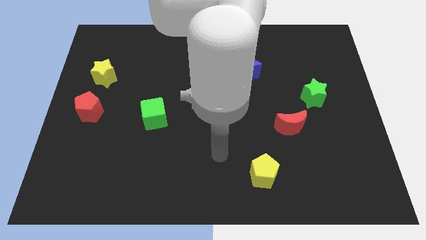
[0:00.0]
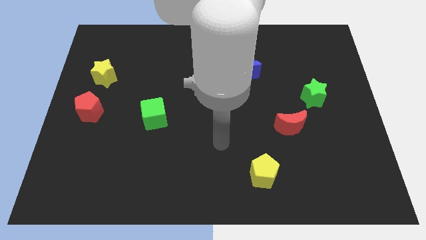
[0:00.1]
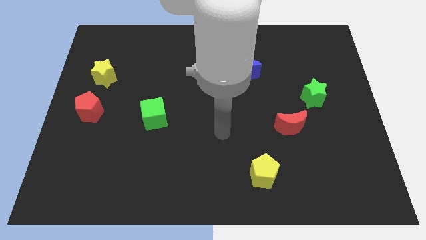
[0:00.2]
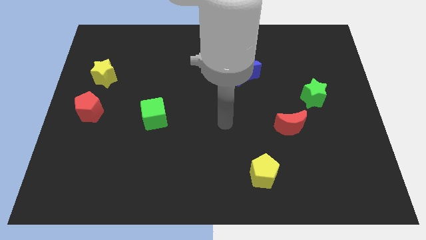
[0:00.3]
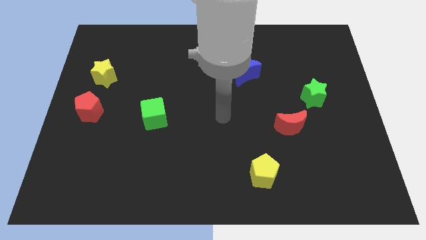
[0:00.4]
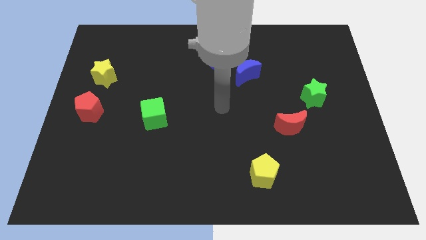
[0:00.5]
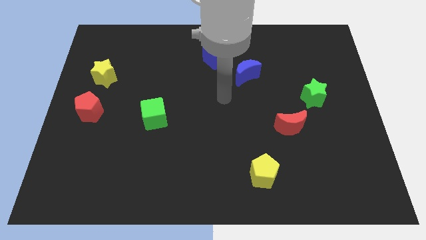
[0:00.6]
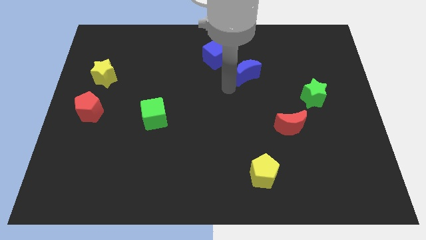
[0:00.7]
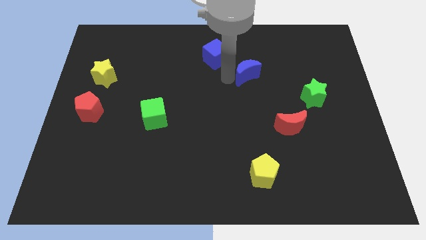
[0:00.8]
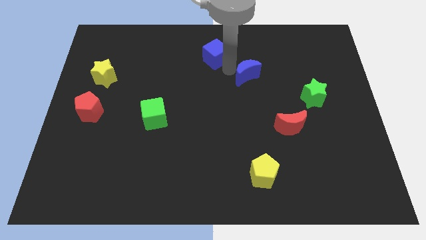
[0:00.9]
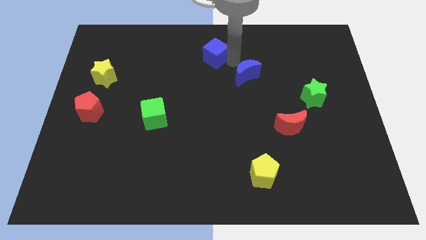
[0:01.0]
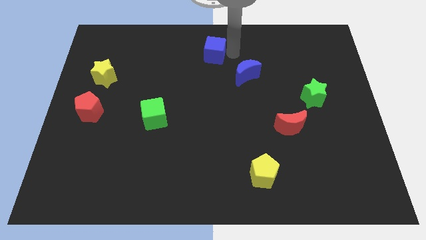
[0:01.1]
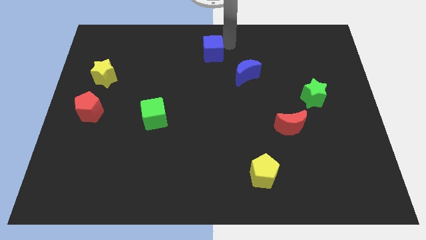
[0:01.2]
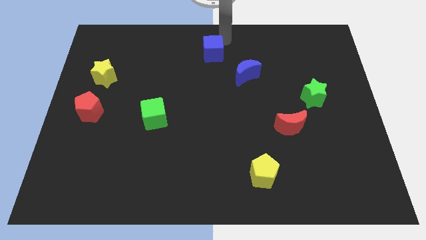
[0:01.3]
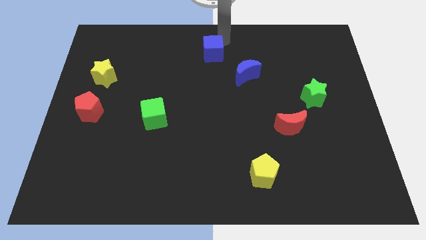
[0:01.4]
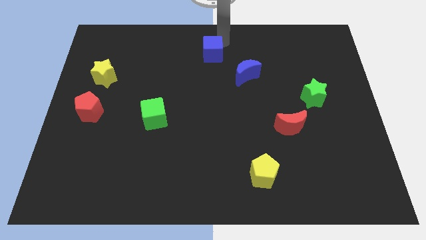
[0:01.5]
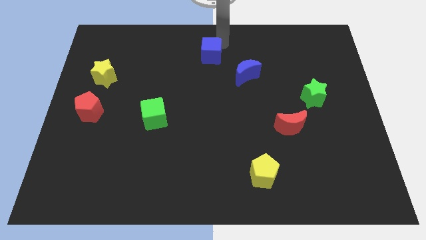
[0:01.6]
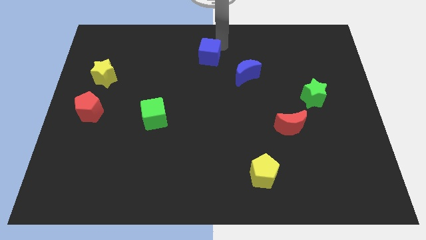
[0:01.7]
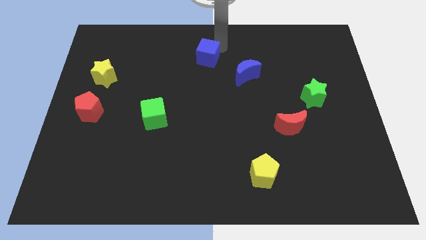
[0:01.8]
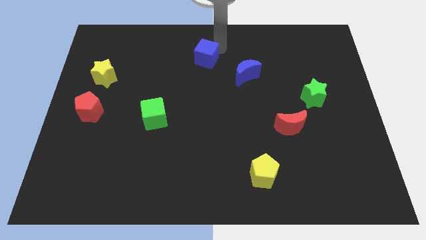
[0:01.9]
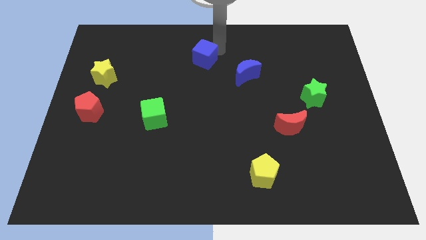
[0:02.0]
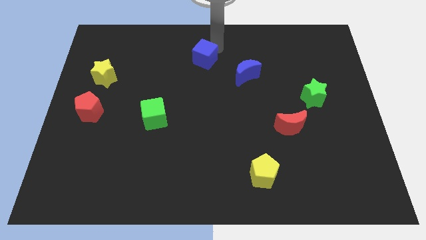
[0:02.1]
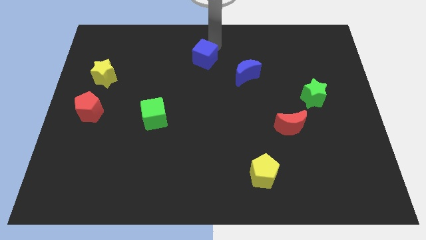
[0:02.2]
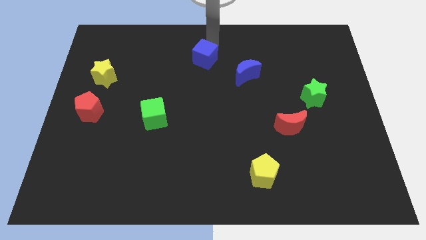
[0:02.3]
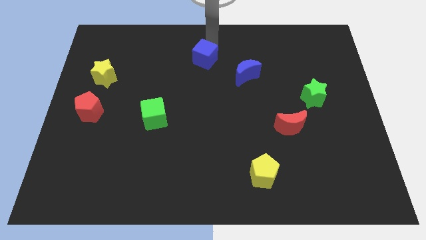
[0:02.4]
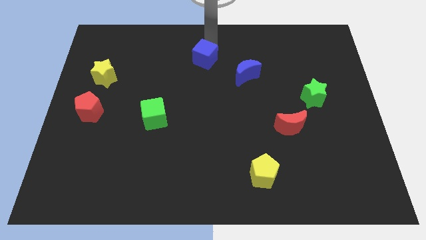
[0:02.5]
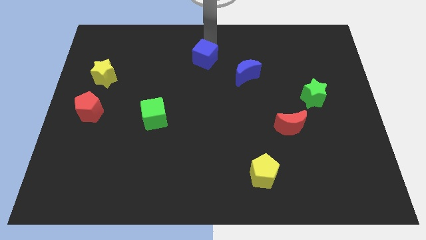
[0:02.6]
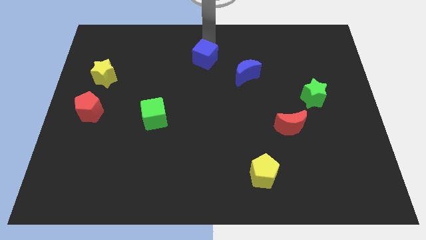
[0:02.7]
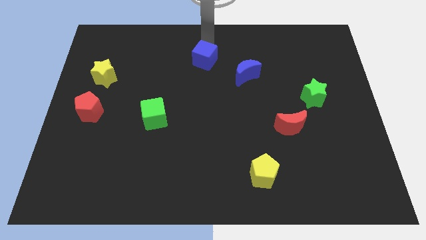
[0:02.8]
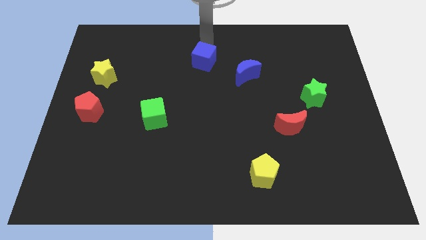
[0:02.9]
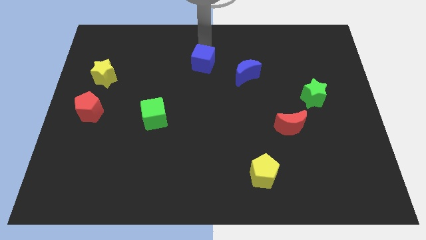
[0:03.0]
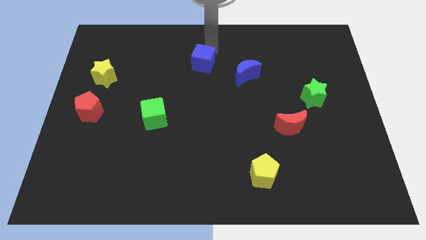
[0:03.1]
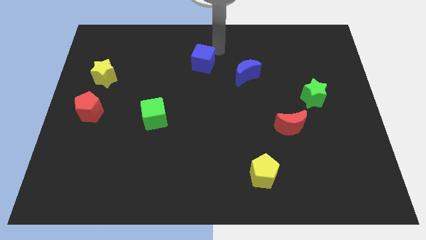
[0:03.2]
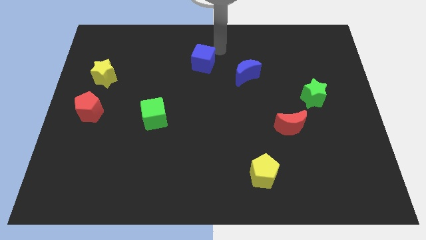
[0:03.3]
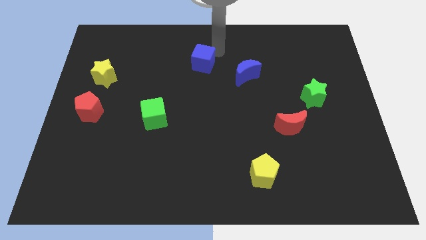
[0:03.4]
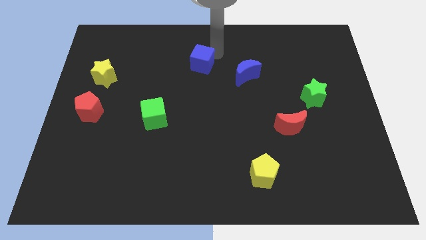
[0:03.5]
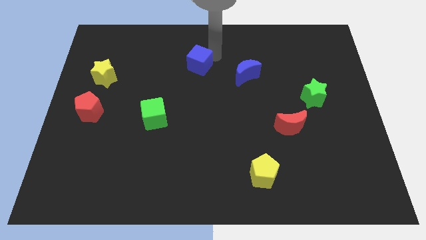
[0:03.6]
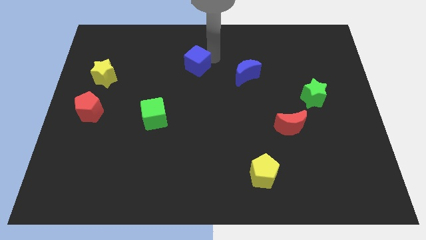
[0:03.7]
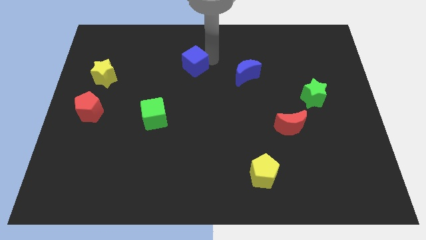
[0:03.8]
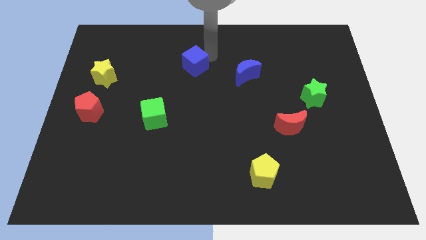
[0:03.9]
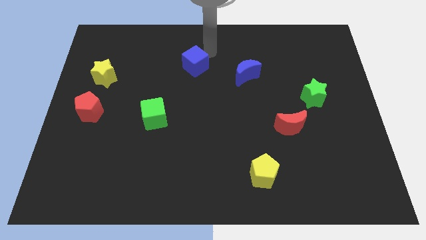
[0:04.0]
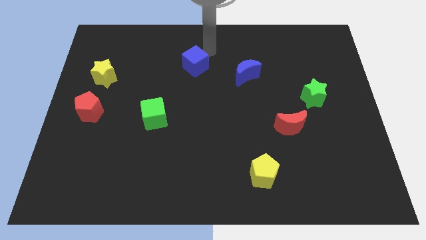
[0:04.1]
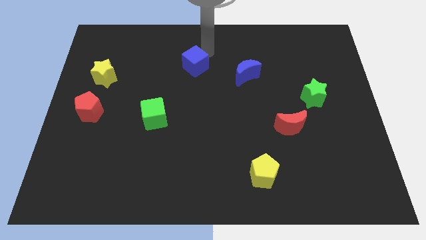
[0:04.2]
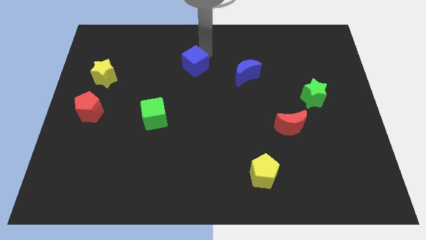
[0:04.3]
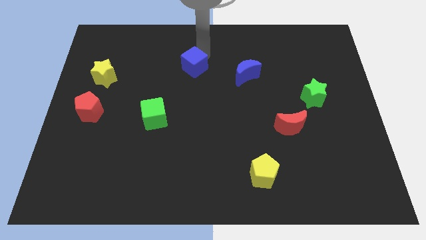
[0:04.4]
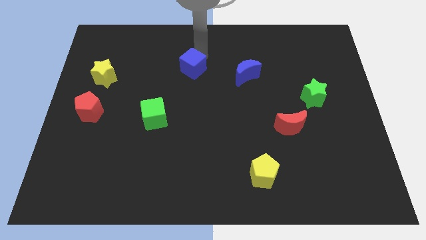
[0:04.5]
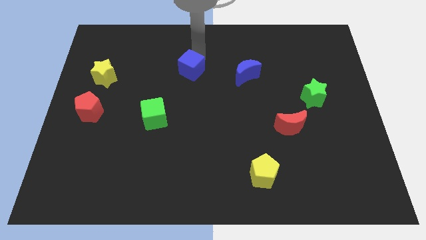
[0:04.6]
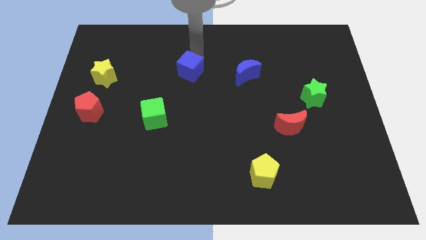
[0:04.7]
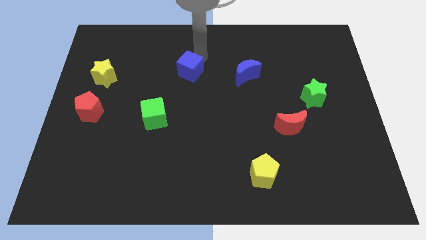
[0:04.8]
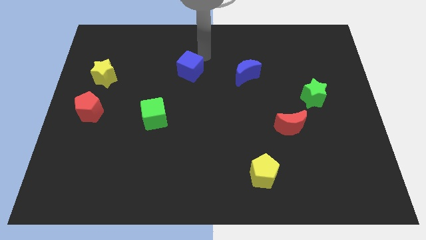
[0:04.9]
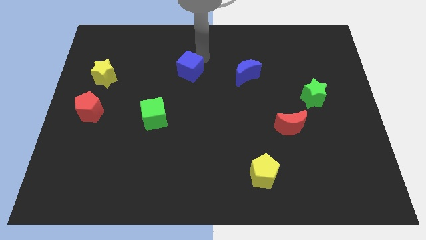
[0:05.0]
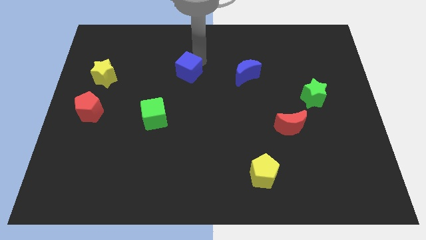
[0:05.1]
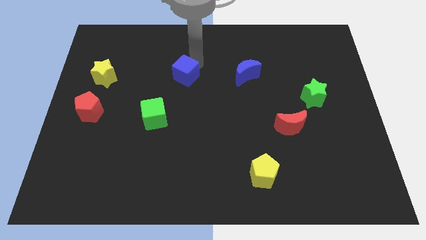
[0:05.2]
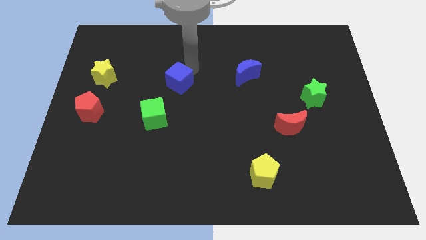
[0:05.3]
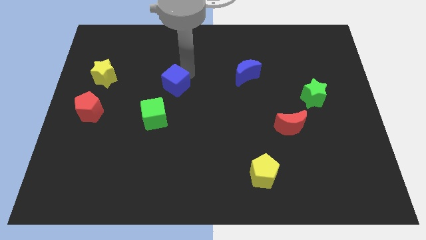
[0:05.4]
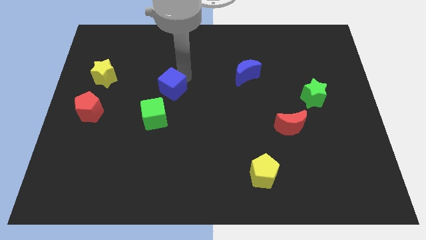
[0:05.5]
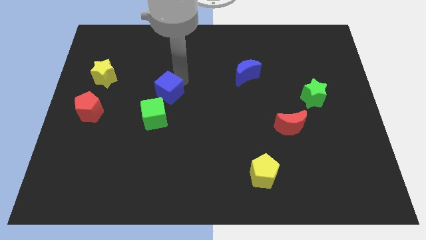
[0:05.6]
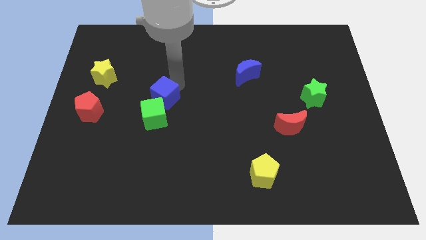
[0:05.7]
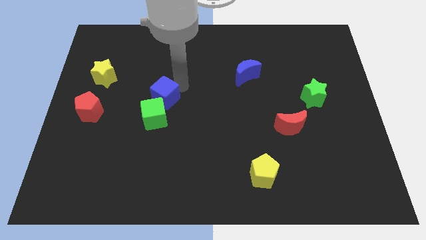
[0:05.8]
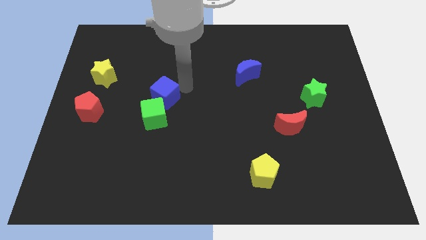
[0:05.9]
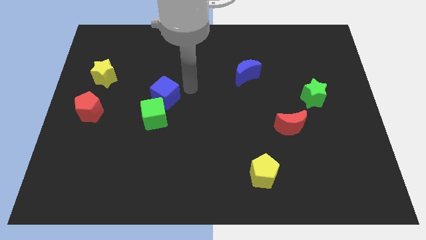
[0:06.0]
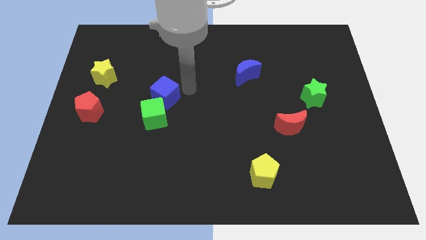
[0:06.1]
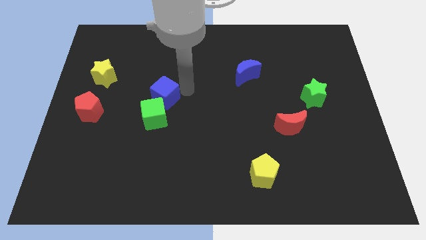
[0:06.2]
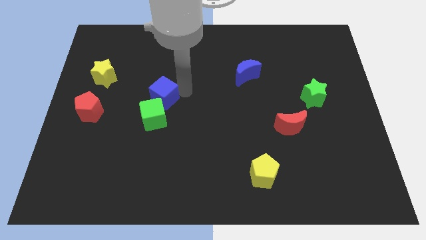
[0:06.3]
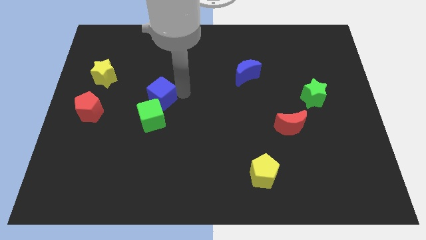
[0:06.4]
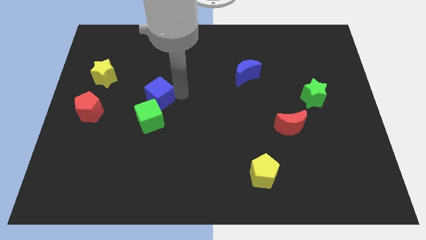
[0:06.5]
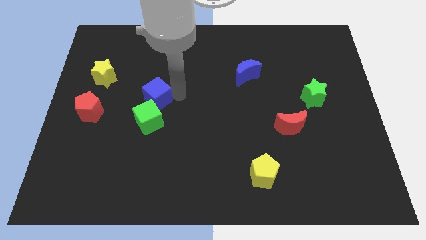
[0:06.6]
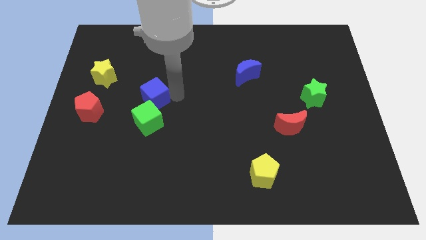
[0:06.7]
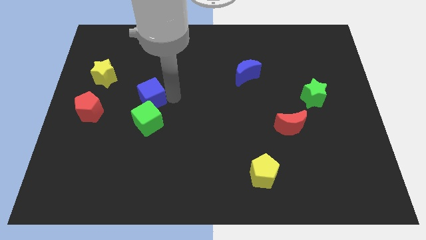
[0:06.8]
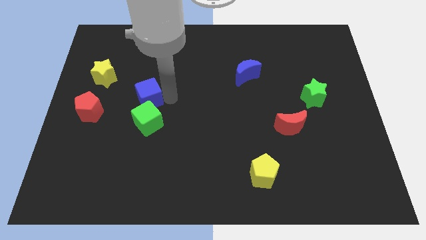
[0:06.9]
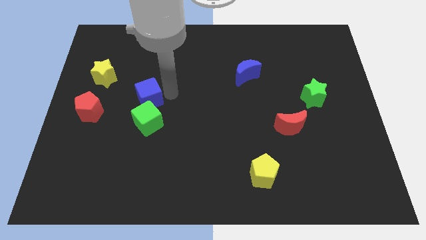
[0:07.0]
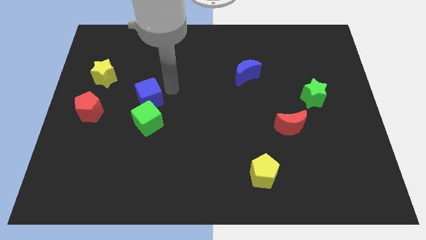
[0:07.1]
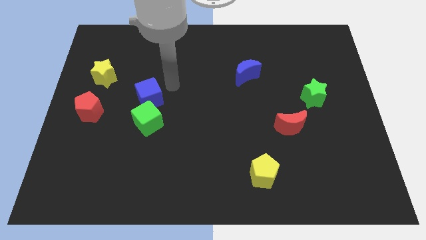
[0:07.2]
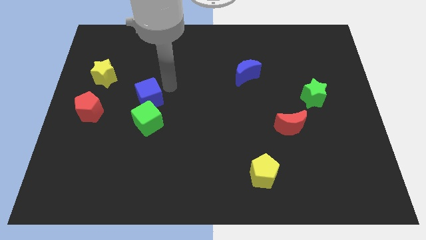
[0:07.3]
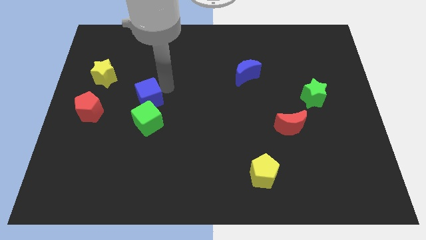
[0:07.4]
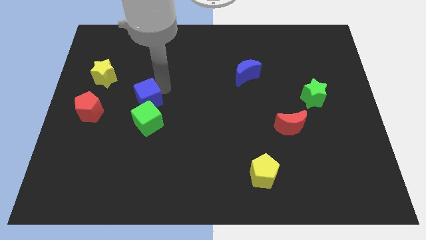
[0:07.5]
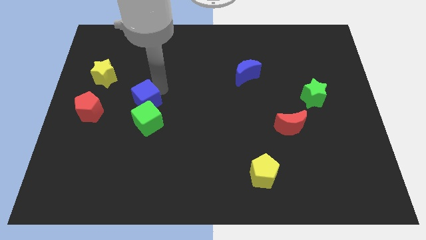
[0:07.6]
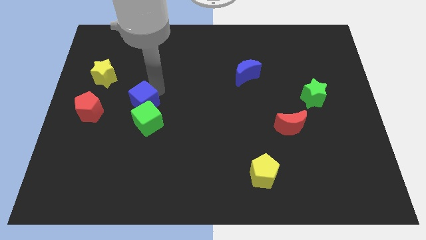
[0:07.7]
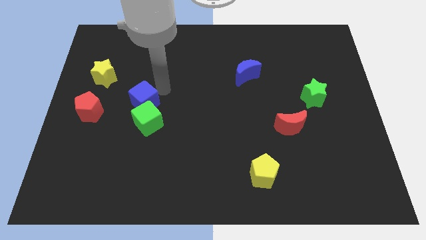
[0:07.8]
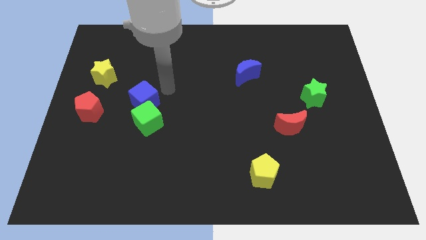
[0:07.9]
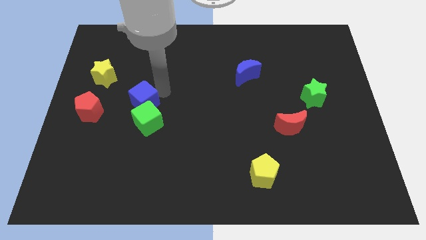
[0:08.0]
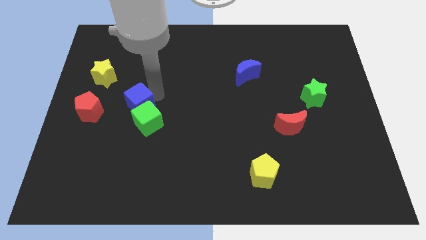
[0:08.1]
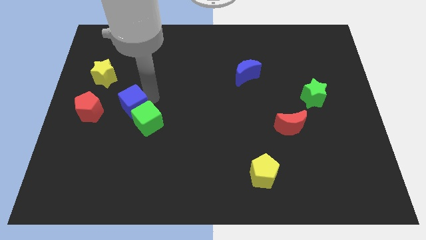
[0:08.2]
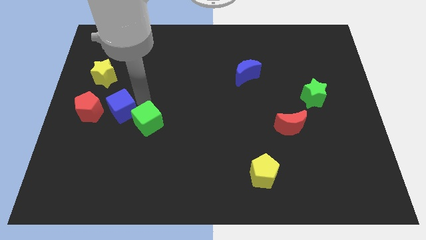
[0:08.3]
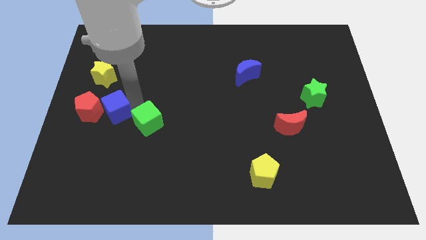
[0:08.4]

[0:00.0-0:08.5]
push the blue cube to the bottom side of the yellow star
